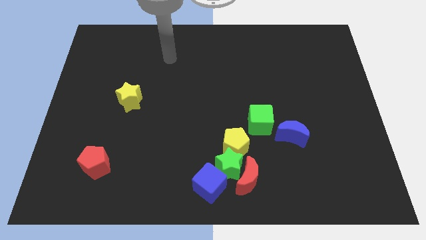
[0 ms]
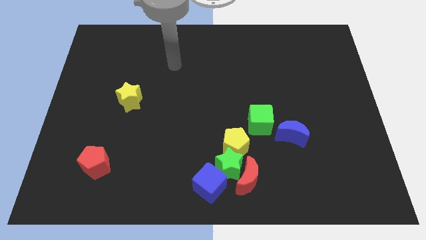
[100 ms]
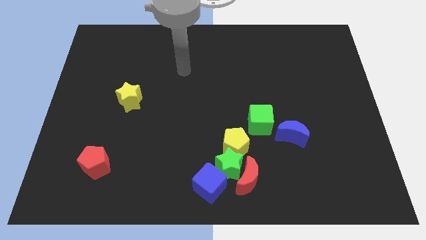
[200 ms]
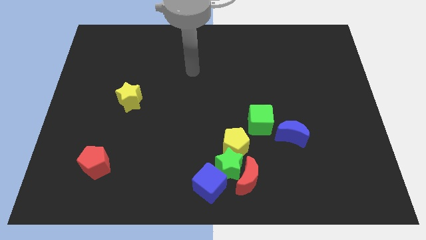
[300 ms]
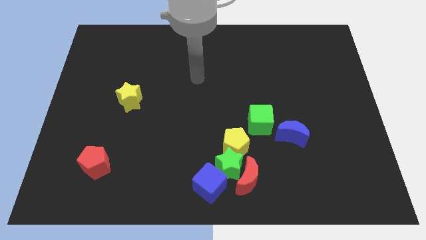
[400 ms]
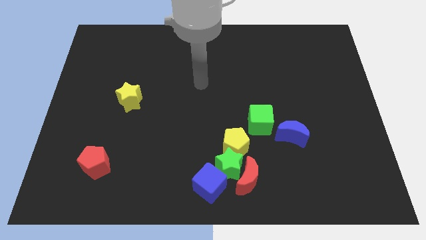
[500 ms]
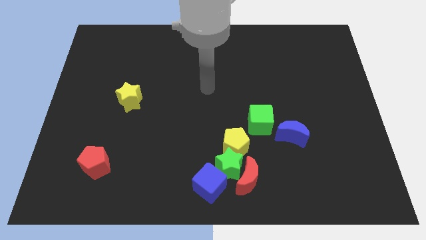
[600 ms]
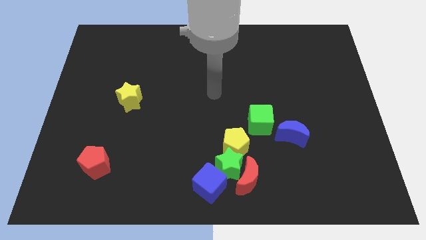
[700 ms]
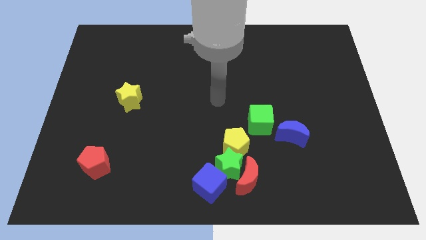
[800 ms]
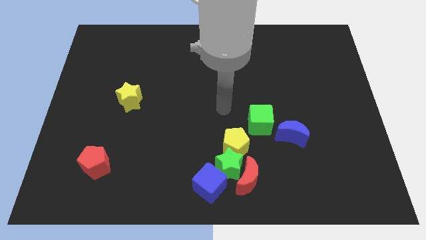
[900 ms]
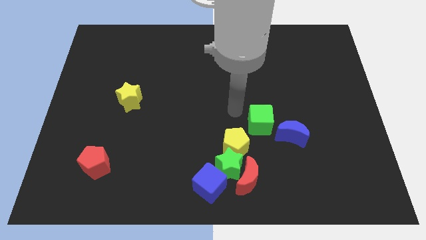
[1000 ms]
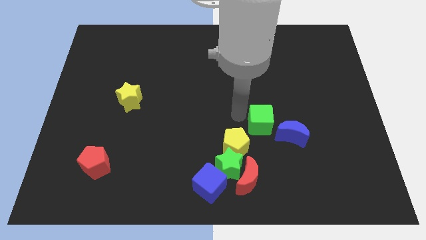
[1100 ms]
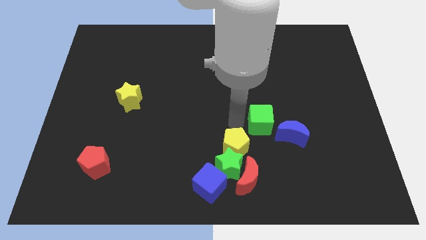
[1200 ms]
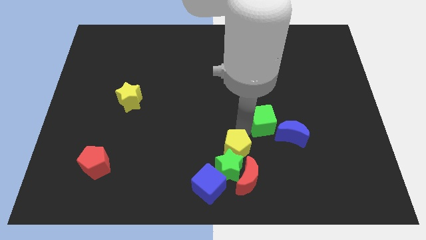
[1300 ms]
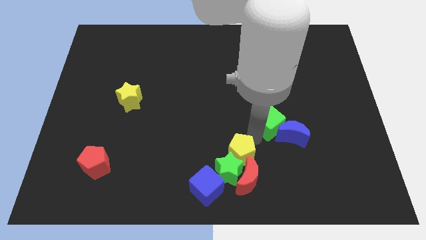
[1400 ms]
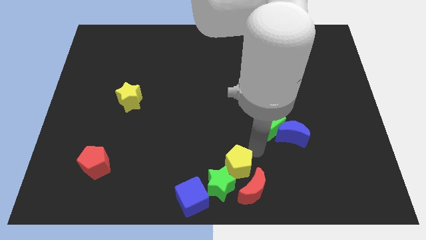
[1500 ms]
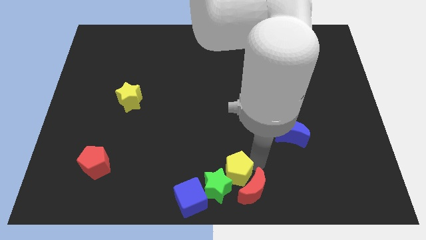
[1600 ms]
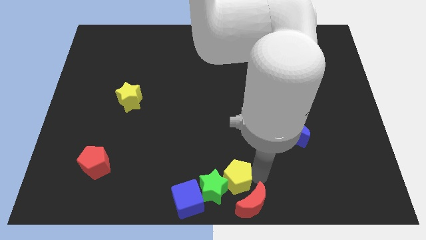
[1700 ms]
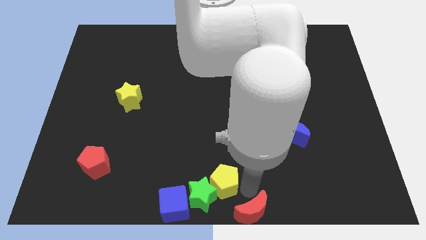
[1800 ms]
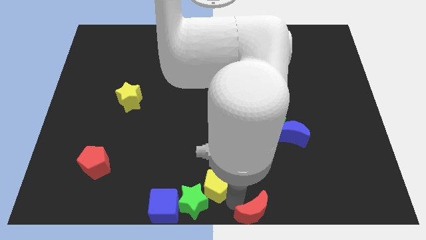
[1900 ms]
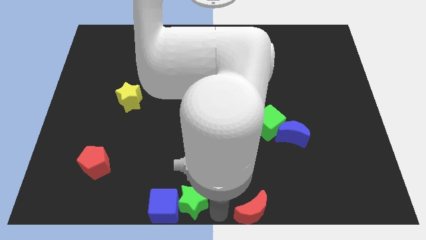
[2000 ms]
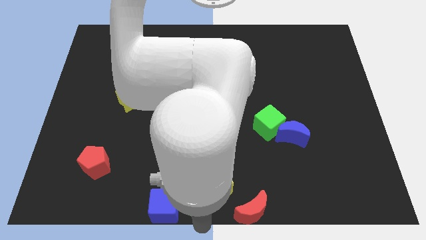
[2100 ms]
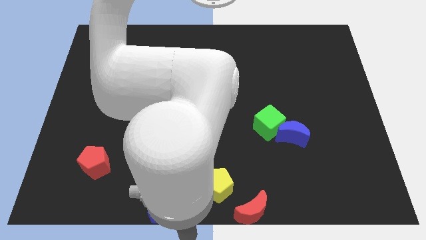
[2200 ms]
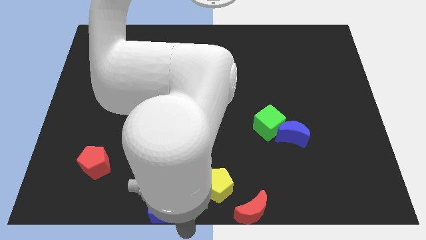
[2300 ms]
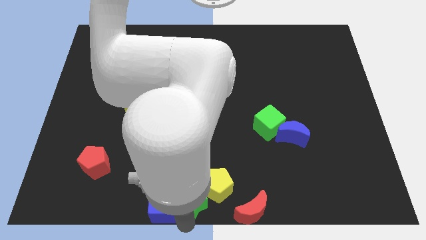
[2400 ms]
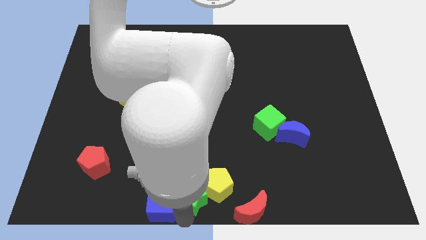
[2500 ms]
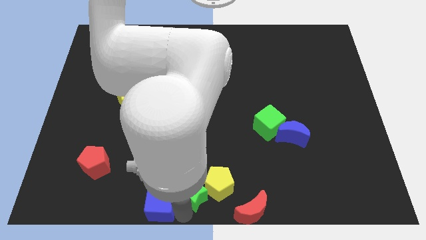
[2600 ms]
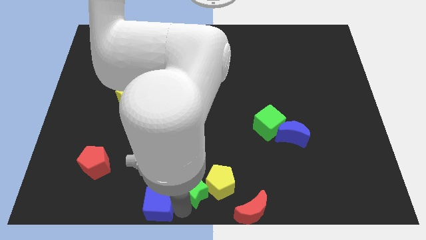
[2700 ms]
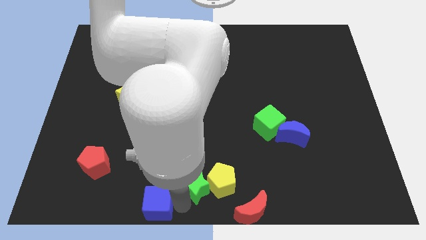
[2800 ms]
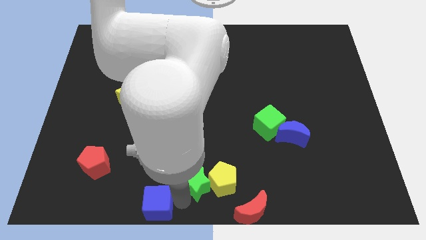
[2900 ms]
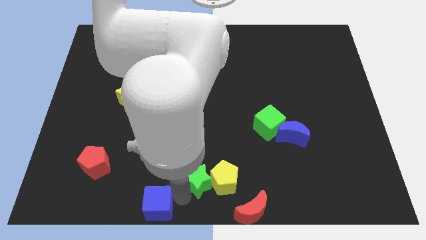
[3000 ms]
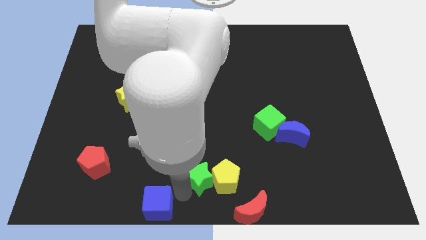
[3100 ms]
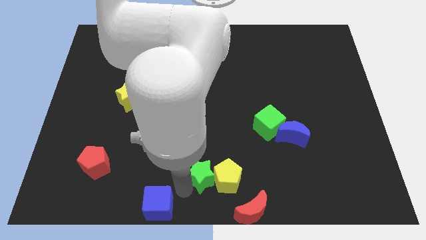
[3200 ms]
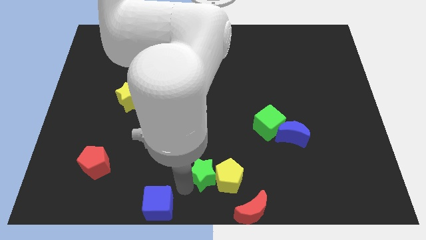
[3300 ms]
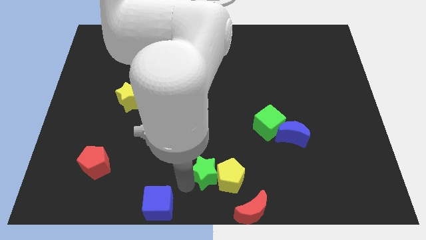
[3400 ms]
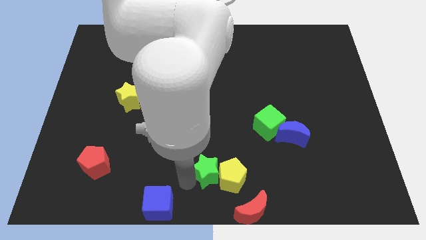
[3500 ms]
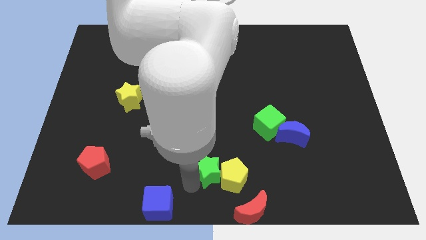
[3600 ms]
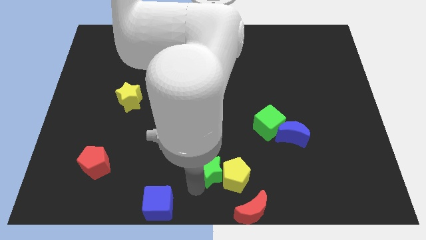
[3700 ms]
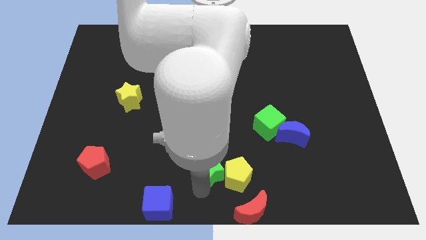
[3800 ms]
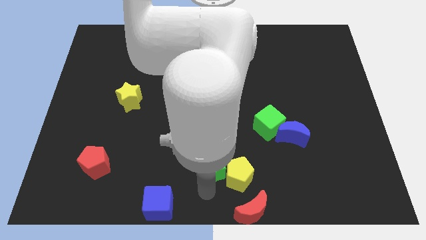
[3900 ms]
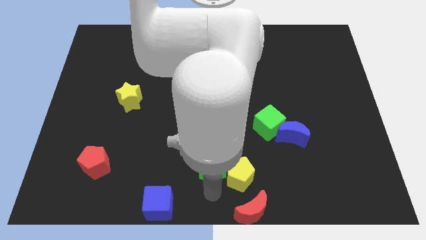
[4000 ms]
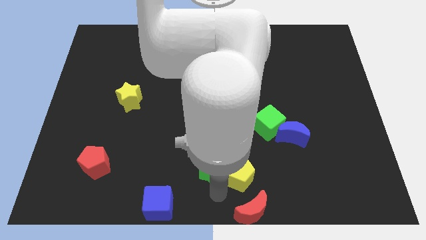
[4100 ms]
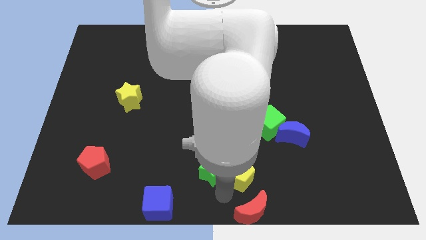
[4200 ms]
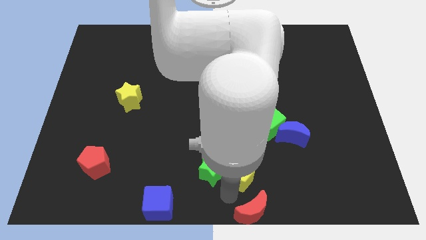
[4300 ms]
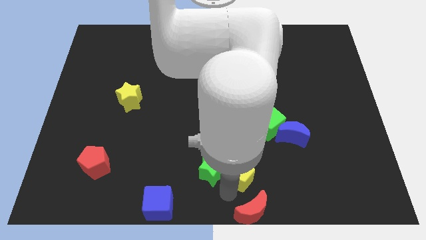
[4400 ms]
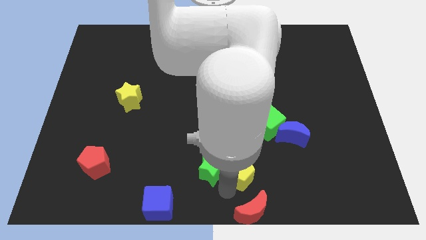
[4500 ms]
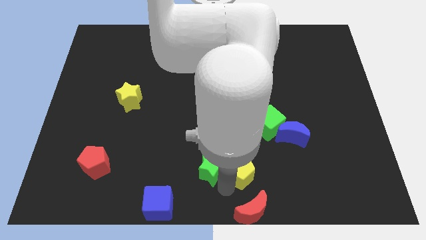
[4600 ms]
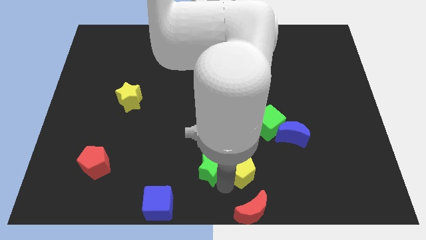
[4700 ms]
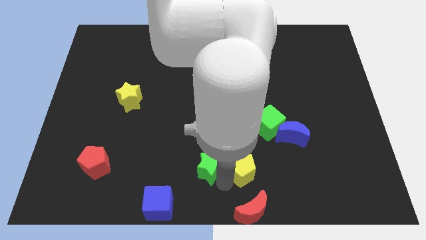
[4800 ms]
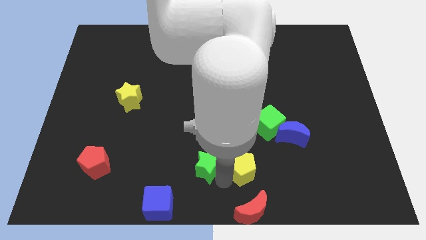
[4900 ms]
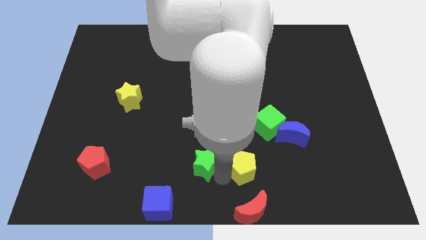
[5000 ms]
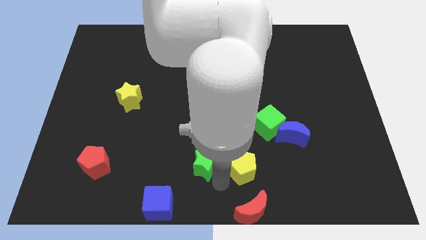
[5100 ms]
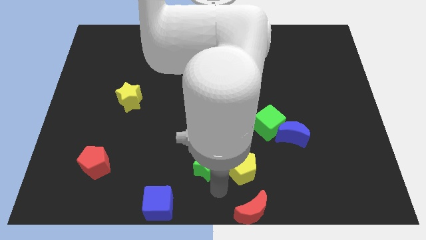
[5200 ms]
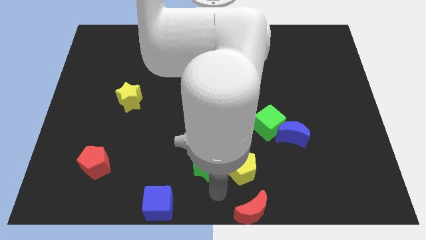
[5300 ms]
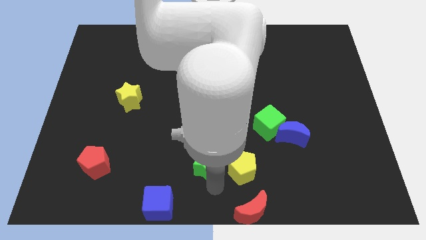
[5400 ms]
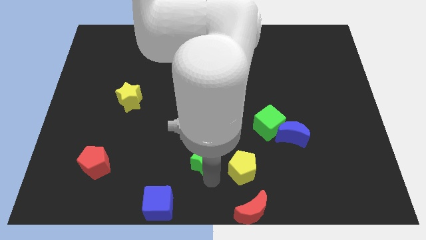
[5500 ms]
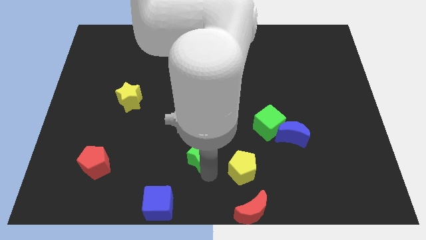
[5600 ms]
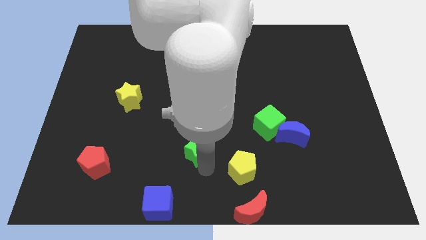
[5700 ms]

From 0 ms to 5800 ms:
move the green star away from the red moon, blue cube, and yellow pentagon

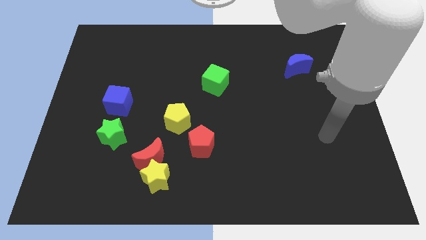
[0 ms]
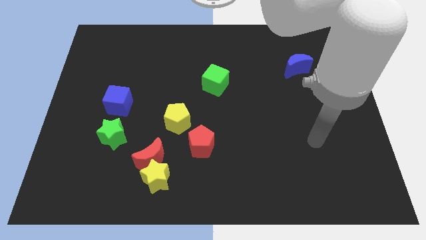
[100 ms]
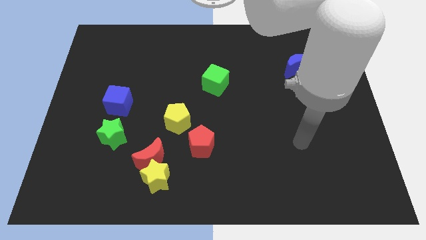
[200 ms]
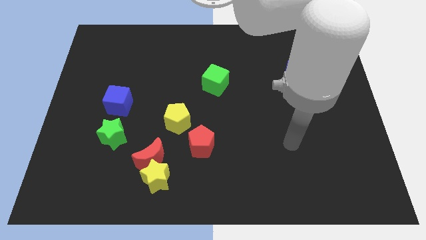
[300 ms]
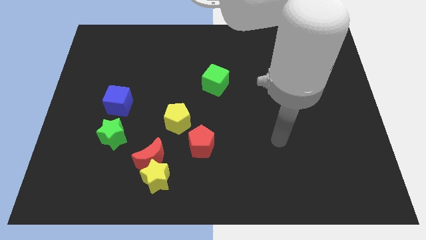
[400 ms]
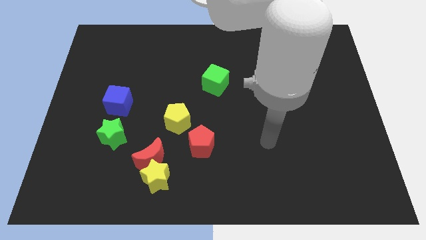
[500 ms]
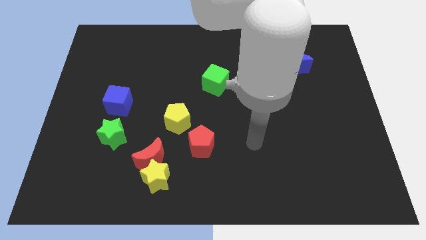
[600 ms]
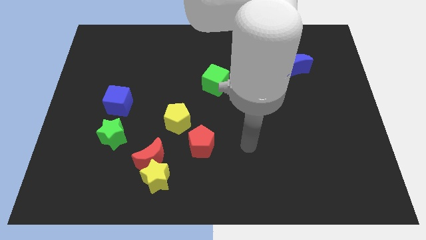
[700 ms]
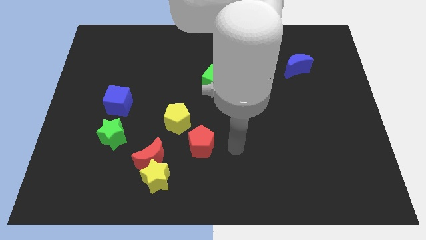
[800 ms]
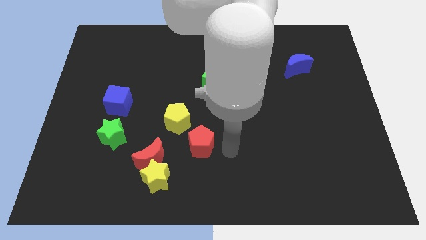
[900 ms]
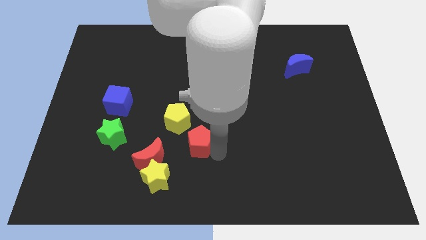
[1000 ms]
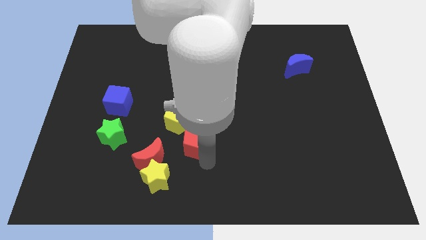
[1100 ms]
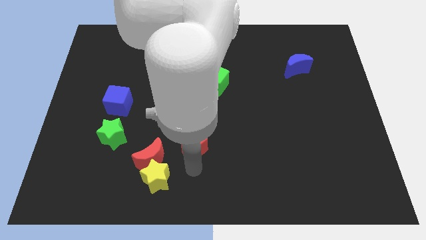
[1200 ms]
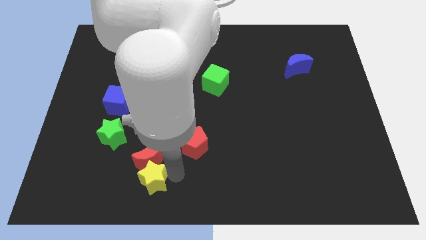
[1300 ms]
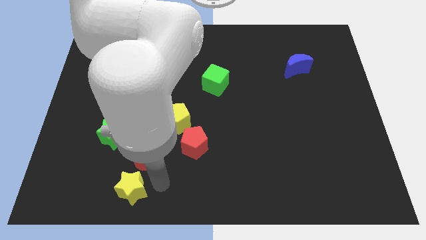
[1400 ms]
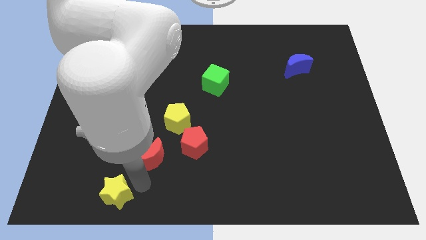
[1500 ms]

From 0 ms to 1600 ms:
separate the red moon from the yellow star

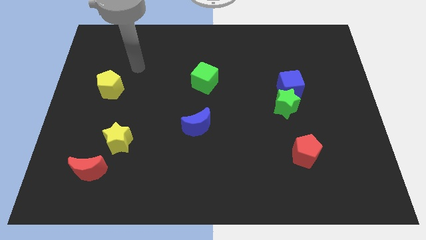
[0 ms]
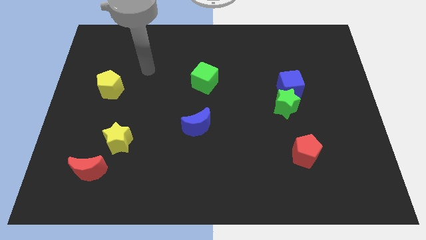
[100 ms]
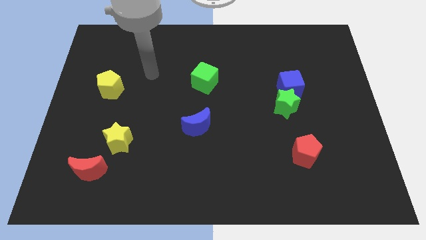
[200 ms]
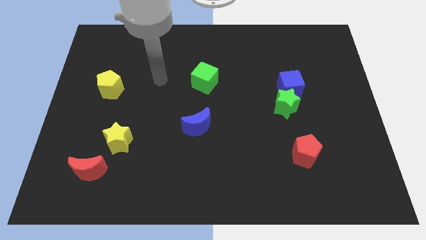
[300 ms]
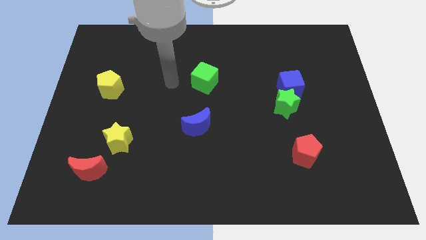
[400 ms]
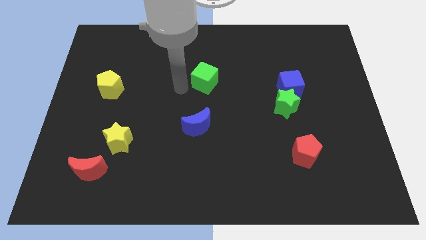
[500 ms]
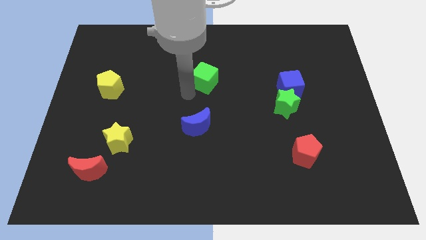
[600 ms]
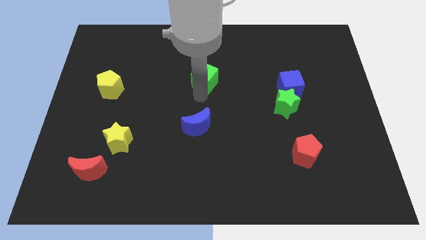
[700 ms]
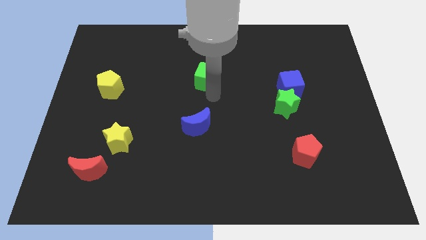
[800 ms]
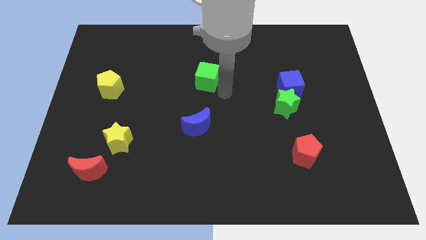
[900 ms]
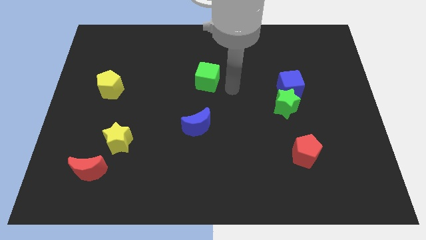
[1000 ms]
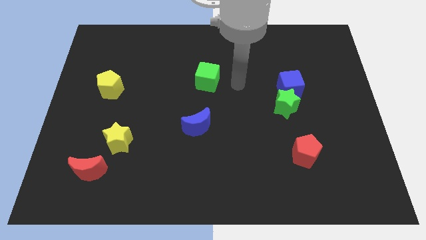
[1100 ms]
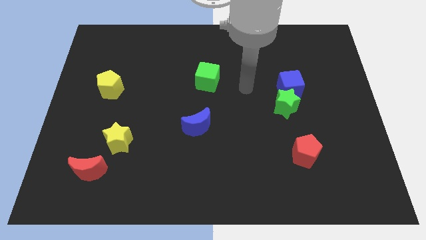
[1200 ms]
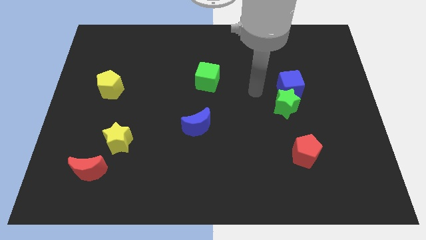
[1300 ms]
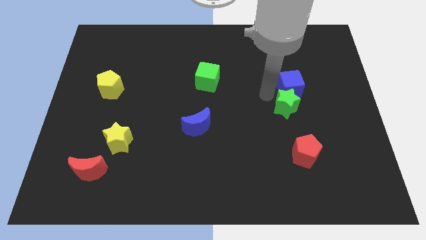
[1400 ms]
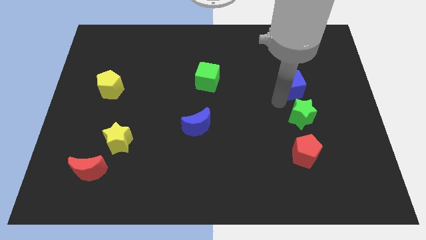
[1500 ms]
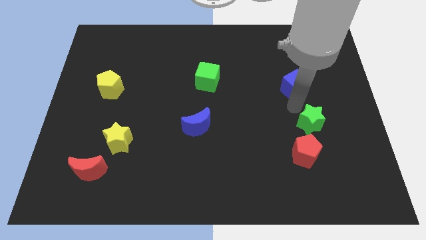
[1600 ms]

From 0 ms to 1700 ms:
separate the blue cube from the green star

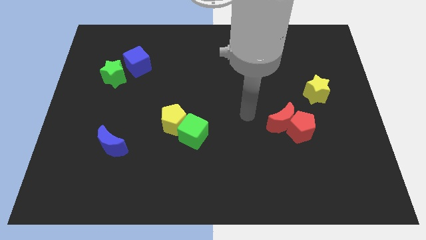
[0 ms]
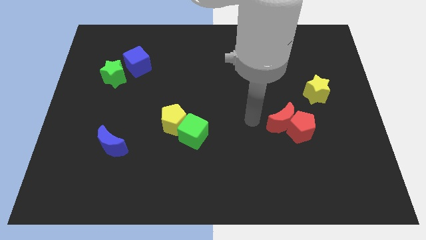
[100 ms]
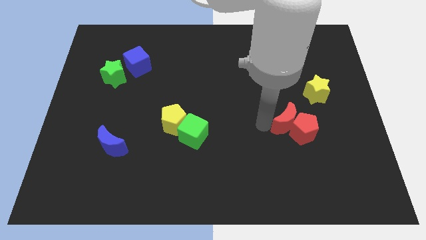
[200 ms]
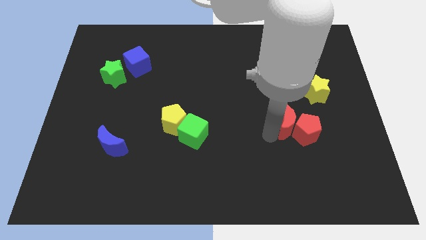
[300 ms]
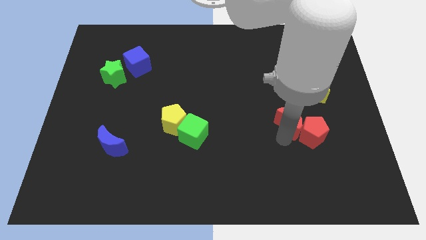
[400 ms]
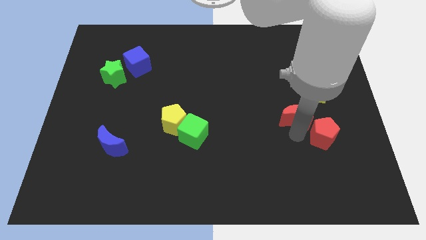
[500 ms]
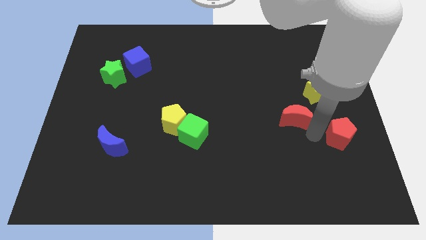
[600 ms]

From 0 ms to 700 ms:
move the red moon away from the red pentagon
